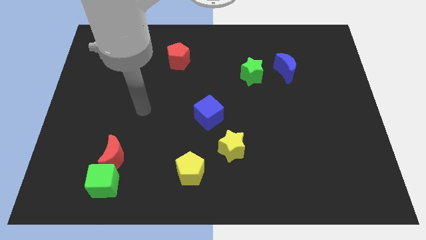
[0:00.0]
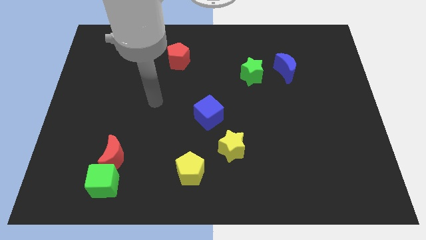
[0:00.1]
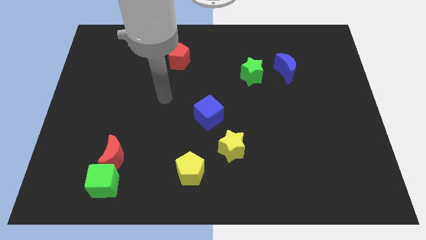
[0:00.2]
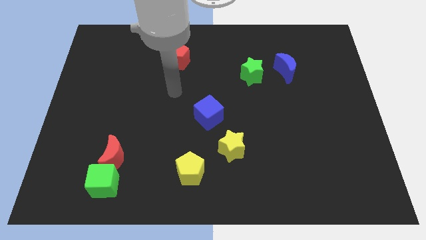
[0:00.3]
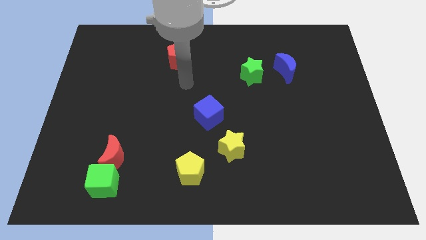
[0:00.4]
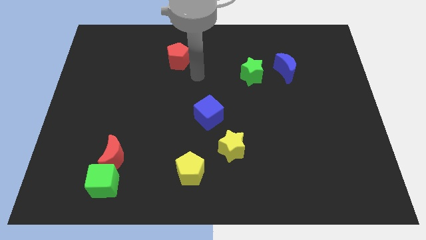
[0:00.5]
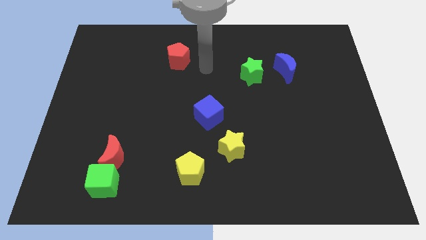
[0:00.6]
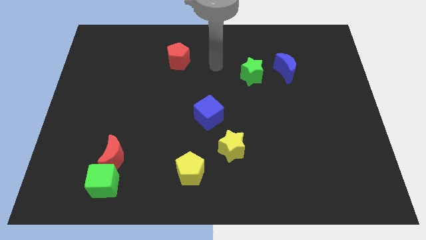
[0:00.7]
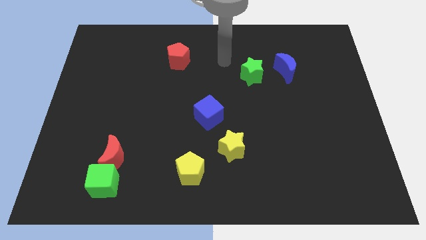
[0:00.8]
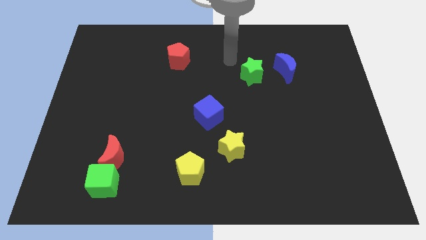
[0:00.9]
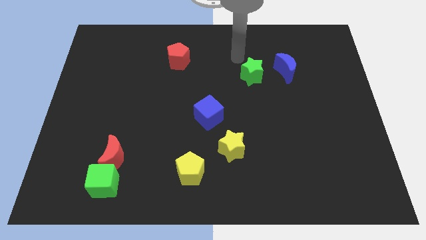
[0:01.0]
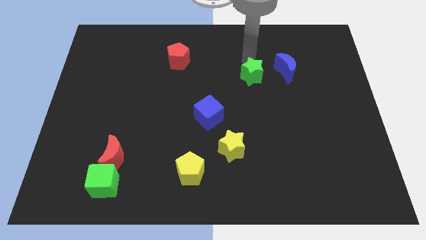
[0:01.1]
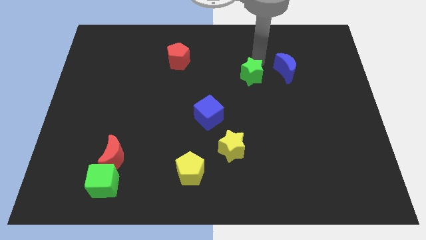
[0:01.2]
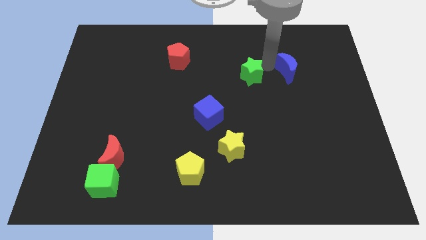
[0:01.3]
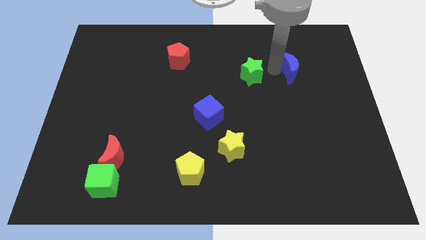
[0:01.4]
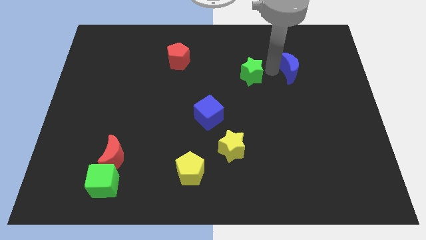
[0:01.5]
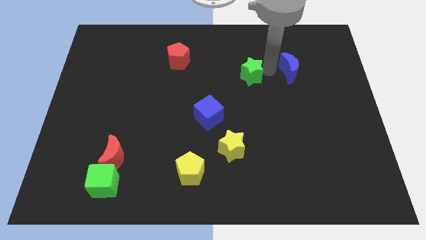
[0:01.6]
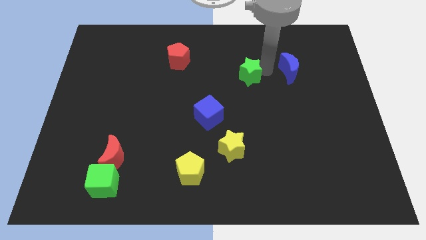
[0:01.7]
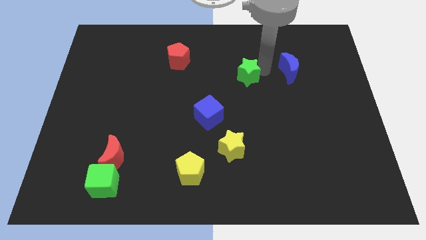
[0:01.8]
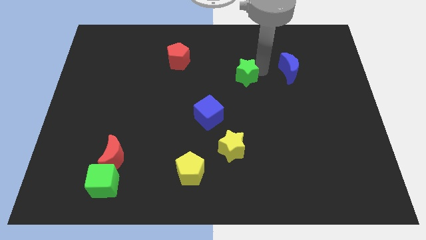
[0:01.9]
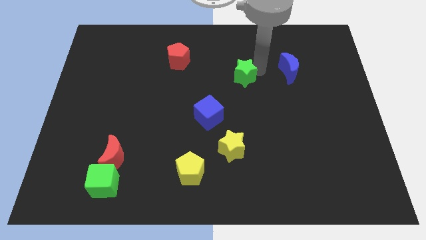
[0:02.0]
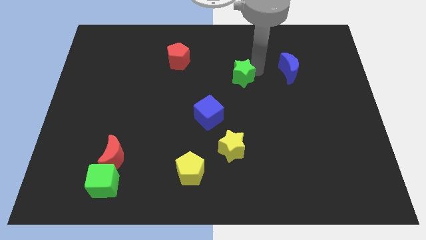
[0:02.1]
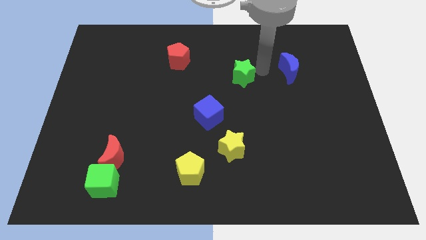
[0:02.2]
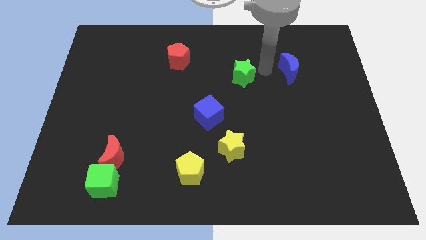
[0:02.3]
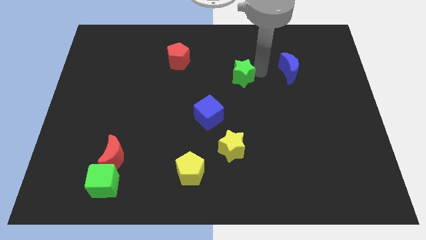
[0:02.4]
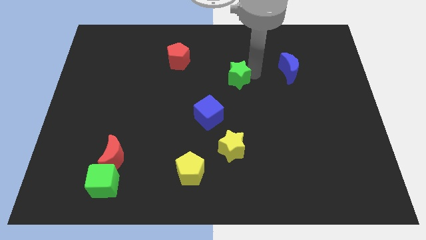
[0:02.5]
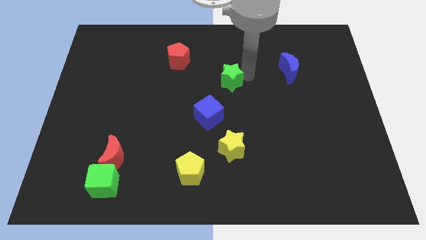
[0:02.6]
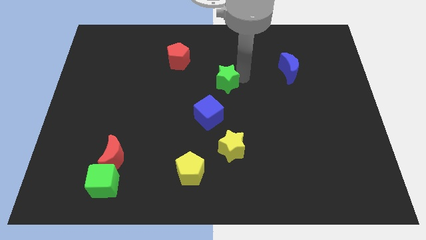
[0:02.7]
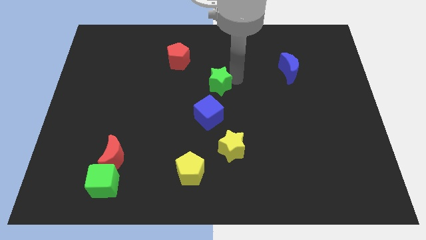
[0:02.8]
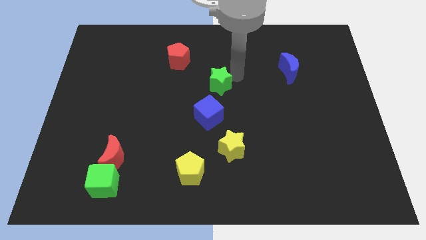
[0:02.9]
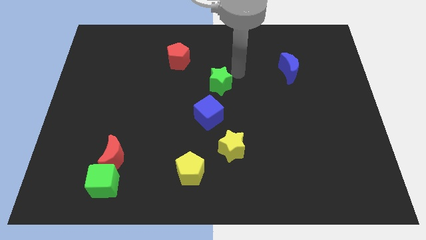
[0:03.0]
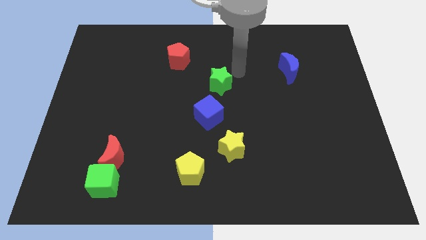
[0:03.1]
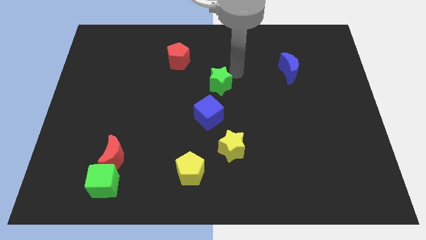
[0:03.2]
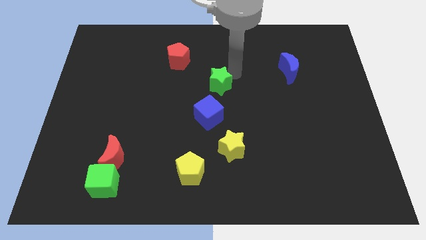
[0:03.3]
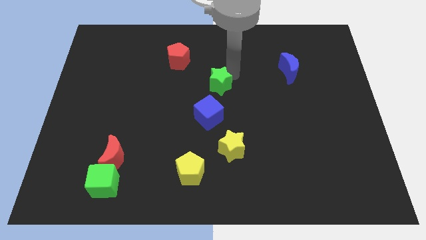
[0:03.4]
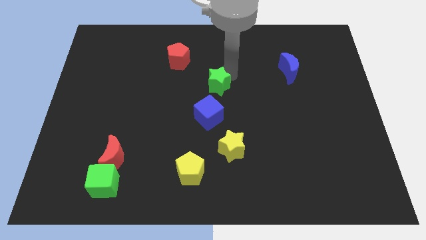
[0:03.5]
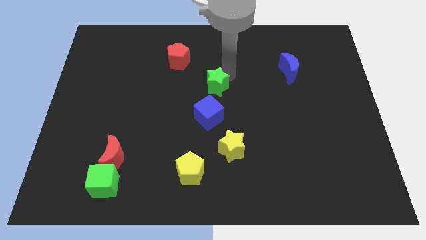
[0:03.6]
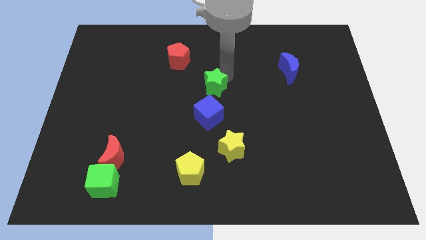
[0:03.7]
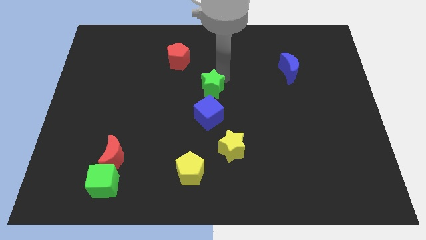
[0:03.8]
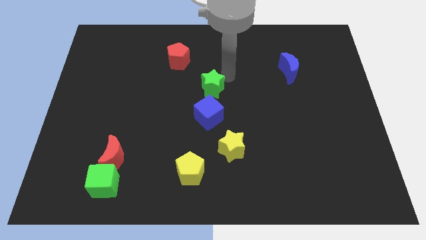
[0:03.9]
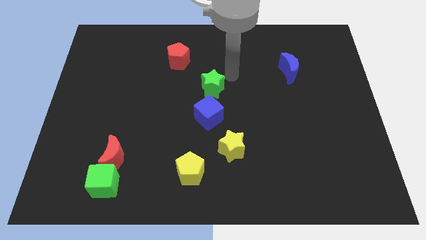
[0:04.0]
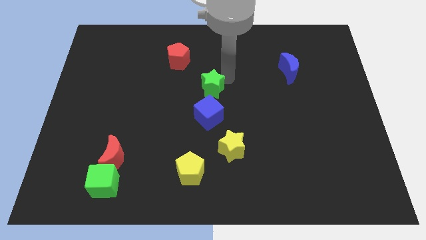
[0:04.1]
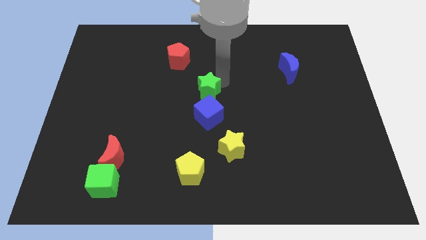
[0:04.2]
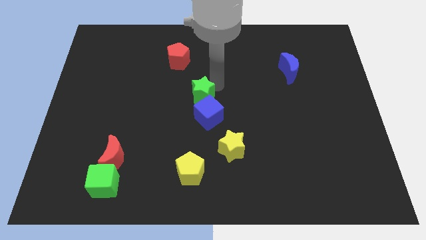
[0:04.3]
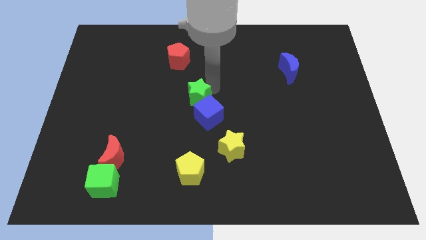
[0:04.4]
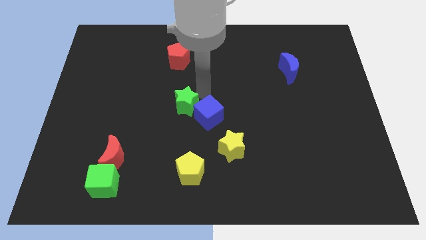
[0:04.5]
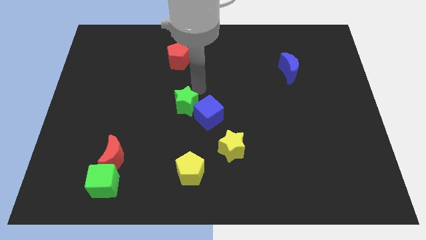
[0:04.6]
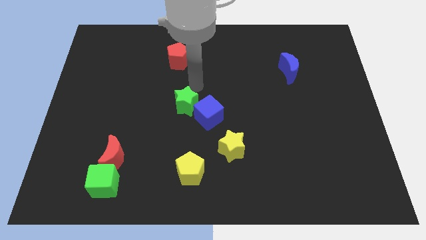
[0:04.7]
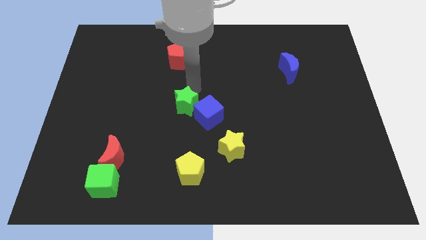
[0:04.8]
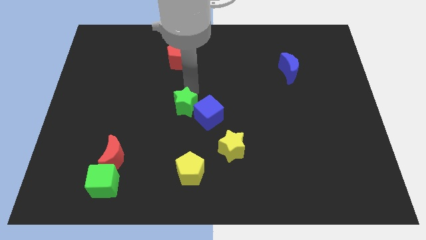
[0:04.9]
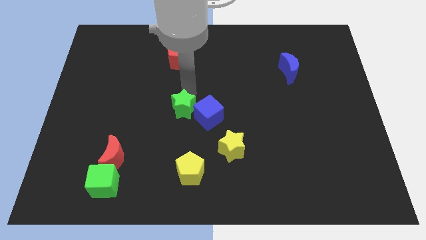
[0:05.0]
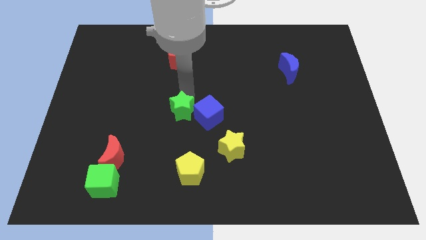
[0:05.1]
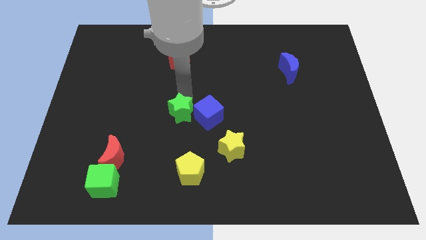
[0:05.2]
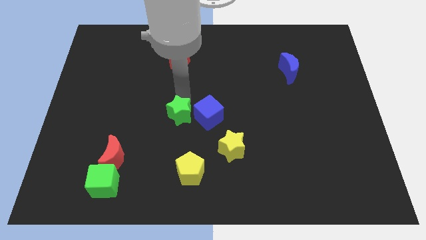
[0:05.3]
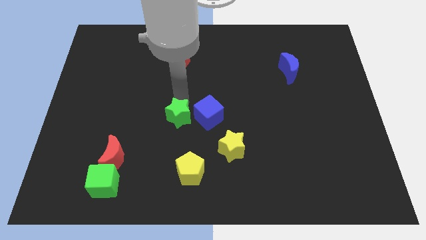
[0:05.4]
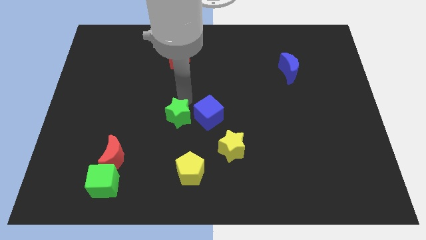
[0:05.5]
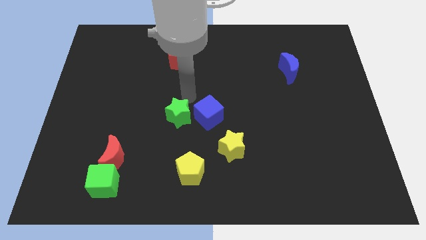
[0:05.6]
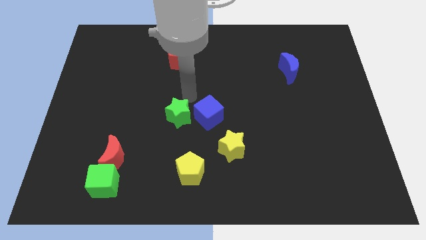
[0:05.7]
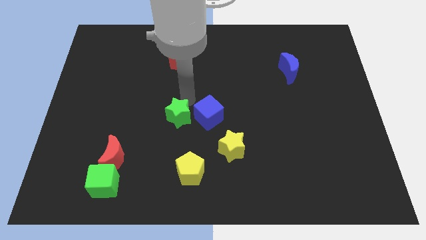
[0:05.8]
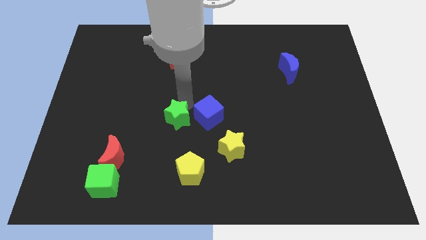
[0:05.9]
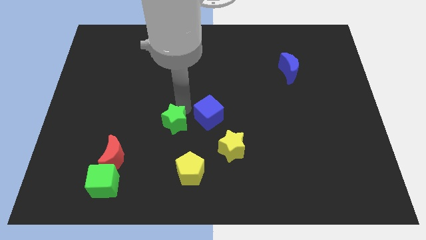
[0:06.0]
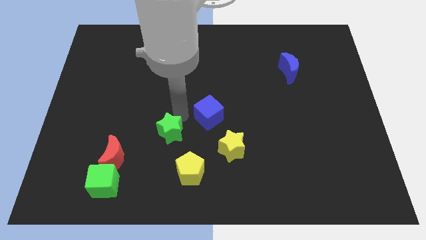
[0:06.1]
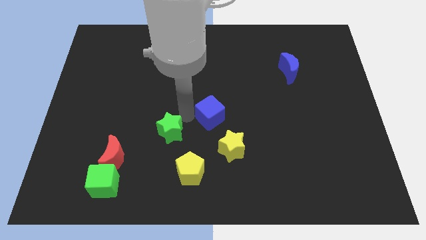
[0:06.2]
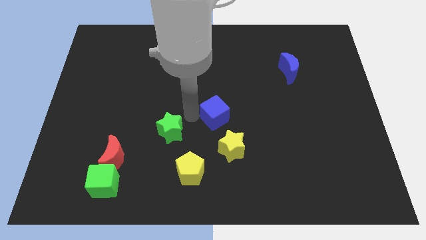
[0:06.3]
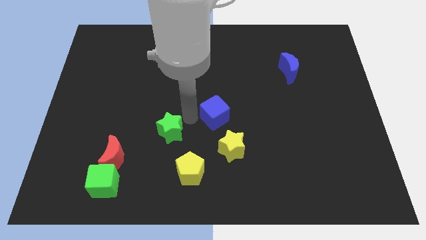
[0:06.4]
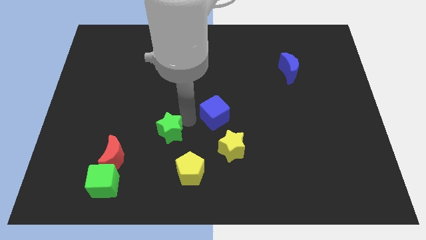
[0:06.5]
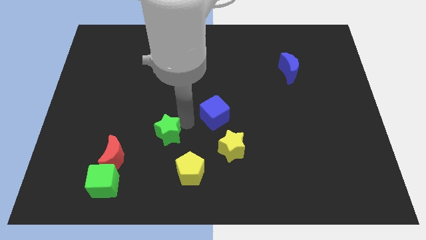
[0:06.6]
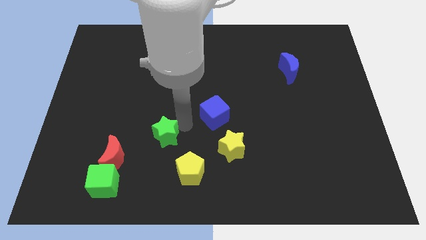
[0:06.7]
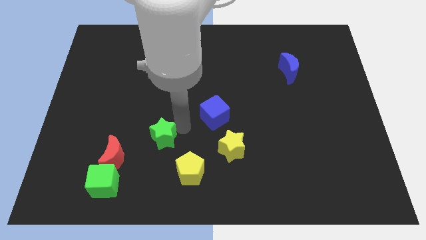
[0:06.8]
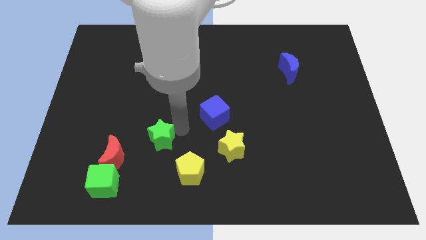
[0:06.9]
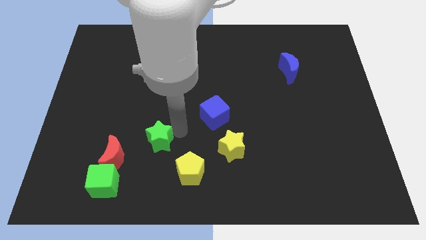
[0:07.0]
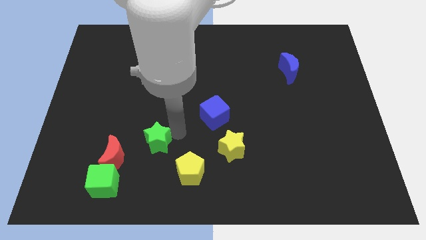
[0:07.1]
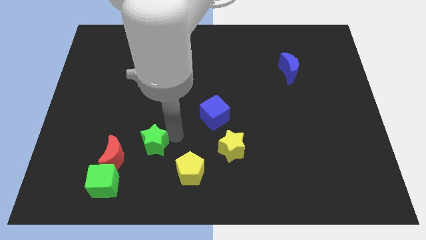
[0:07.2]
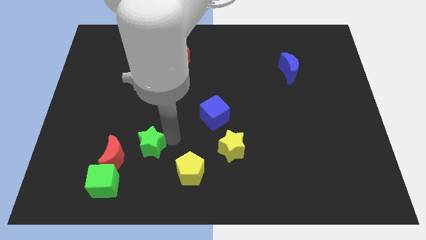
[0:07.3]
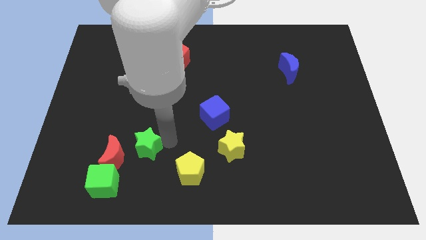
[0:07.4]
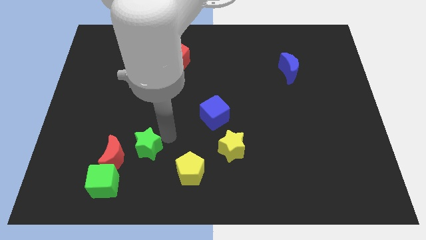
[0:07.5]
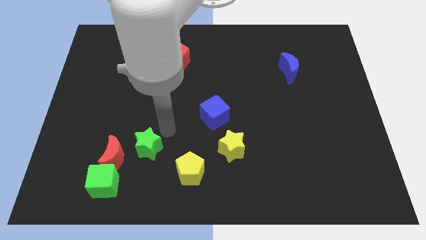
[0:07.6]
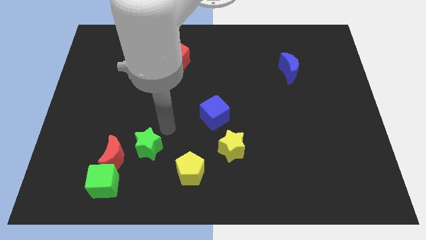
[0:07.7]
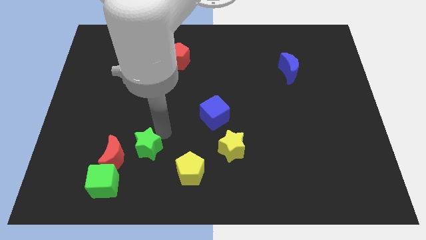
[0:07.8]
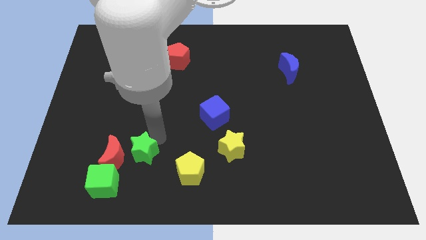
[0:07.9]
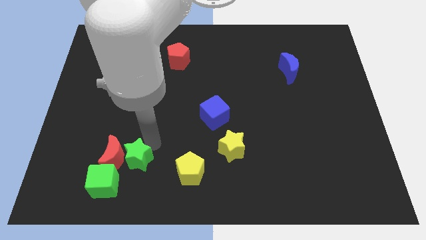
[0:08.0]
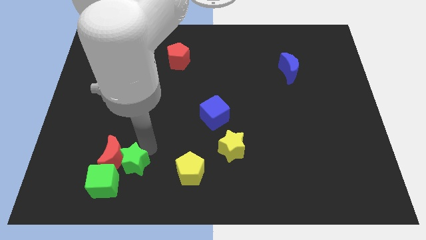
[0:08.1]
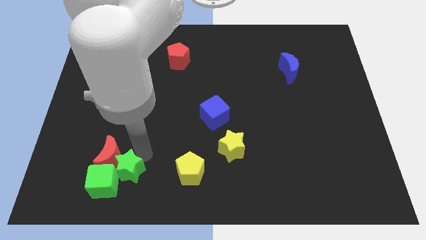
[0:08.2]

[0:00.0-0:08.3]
put the green star close to the green cube
